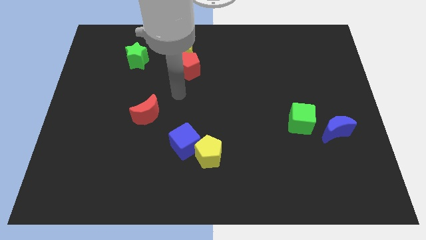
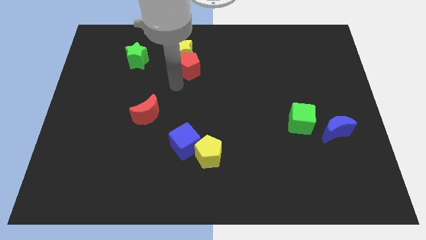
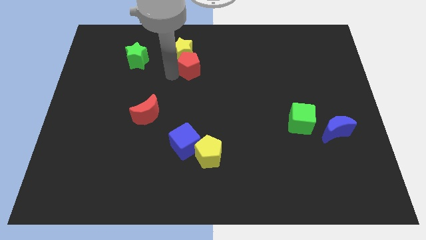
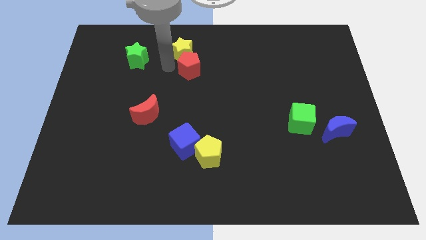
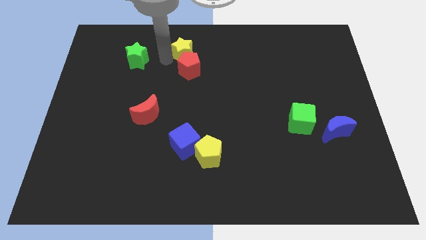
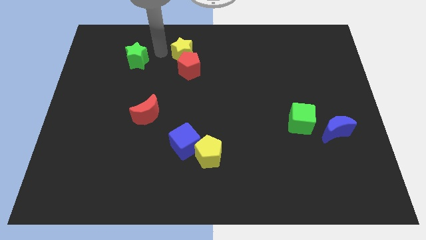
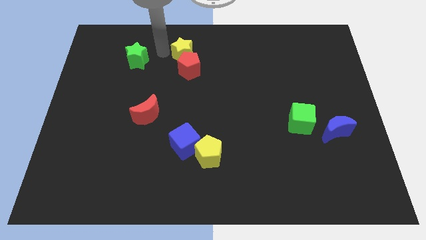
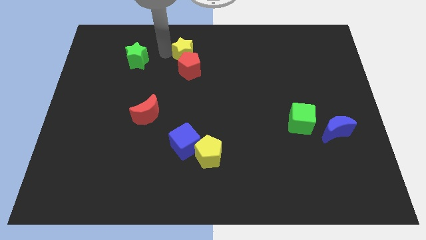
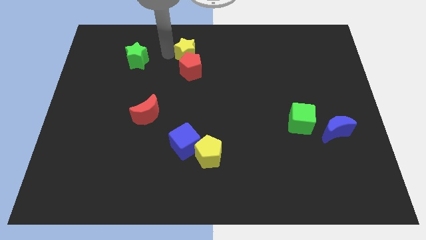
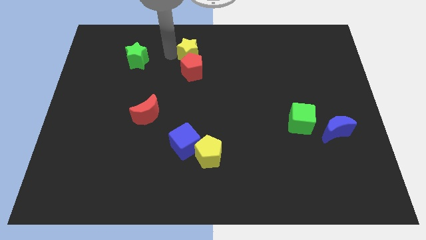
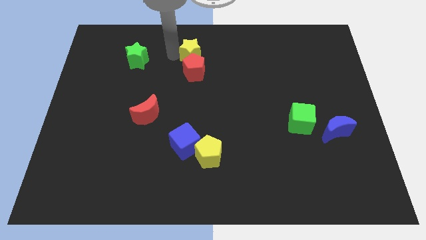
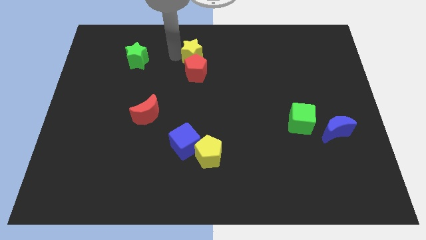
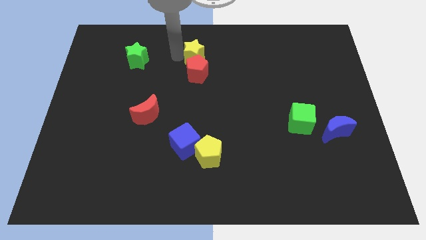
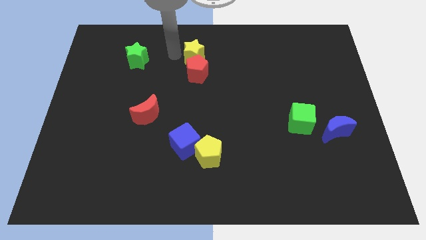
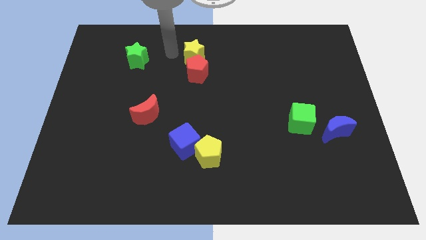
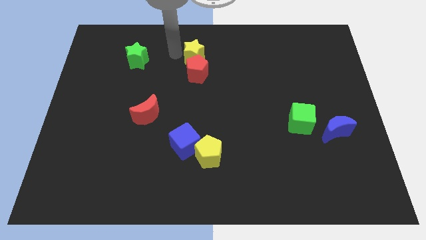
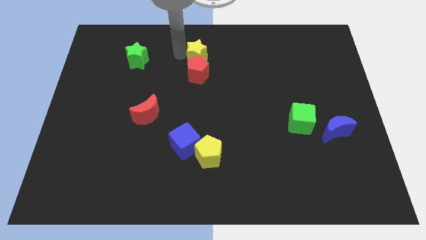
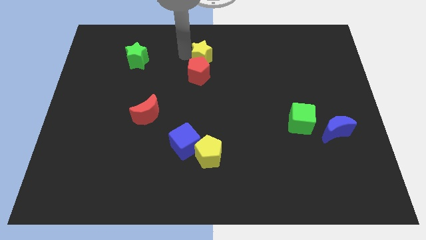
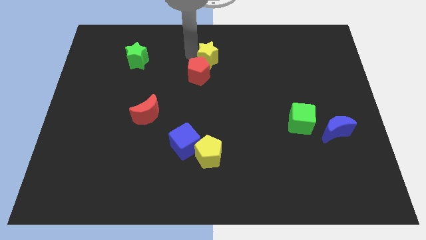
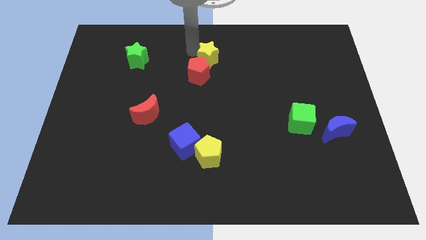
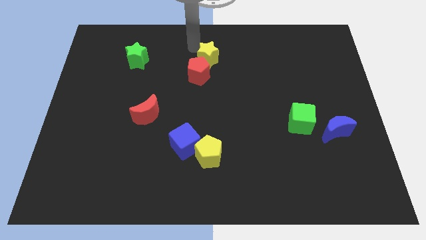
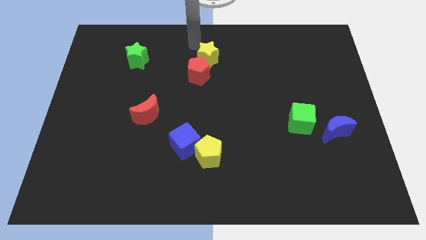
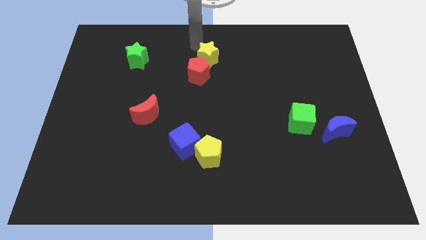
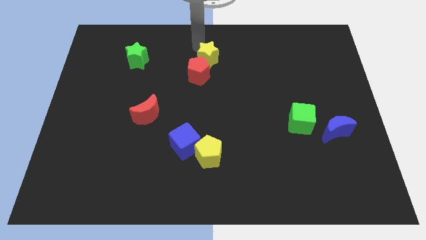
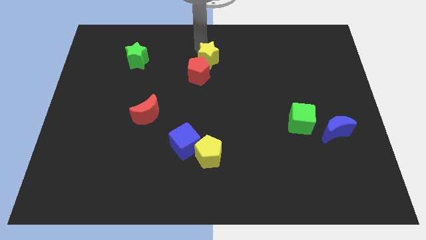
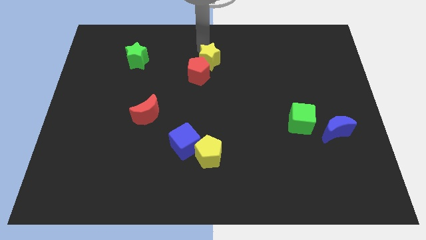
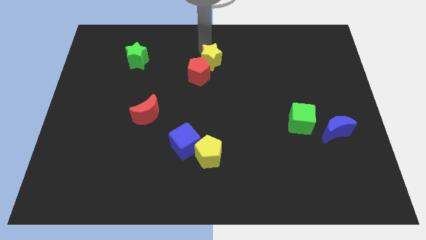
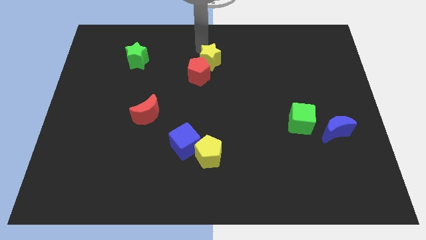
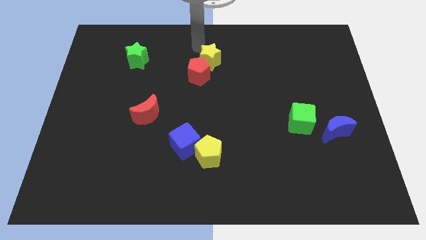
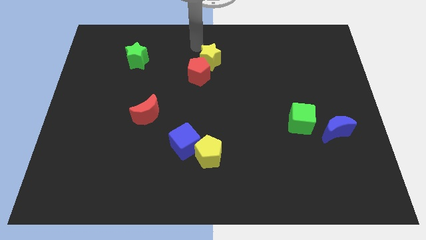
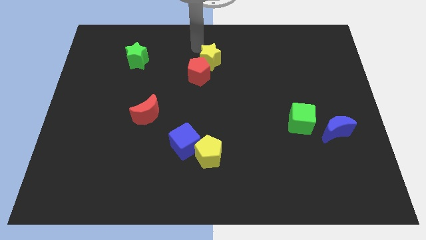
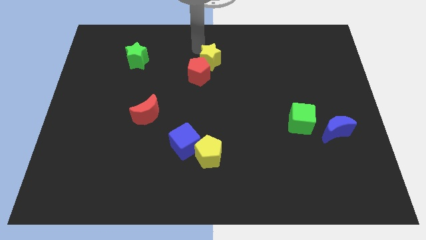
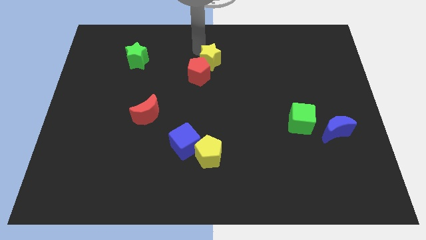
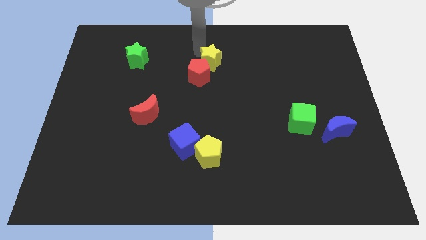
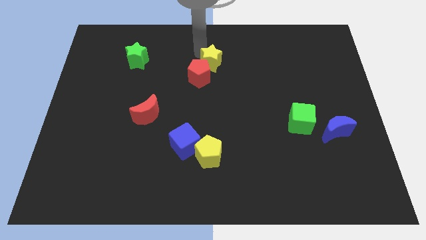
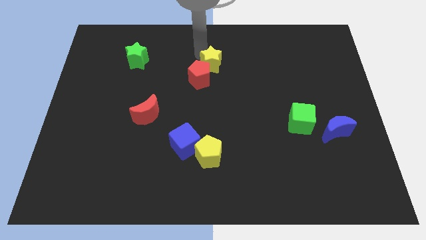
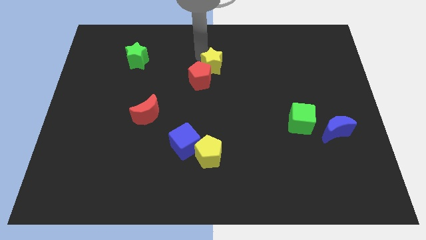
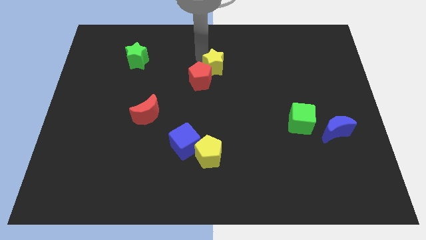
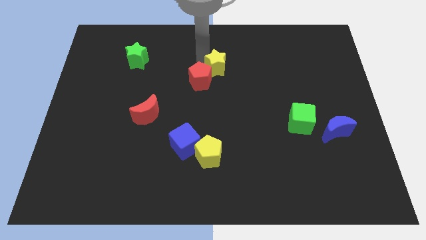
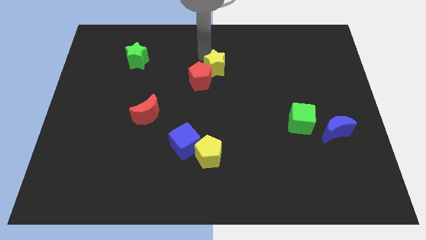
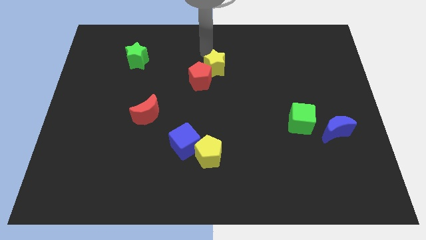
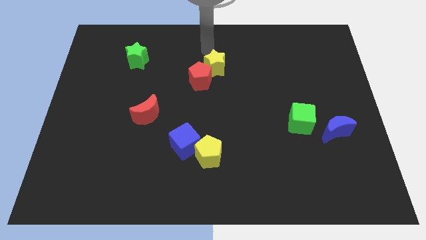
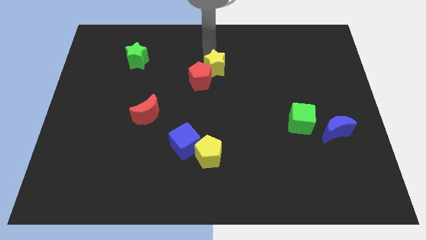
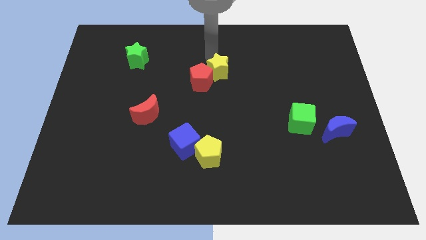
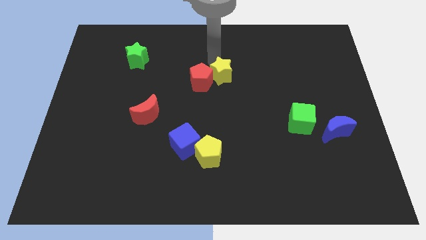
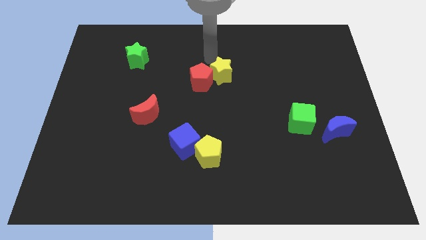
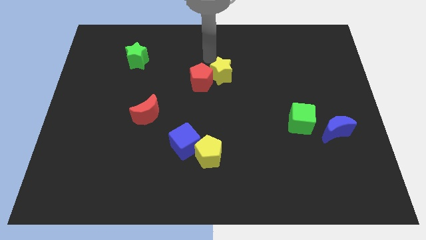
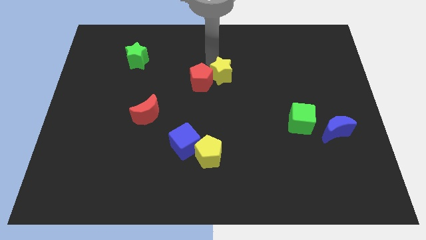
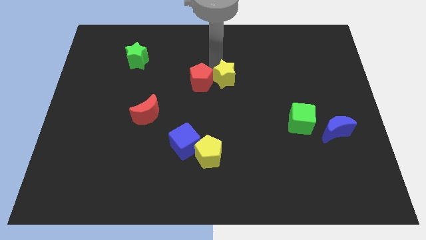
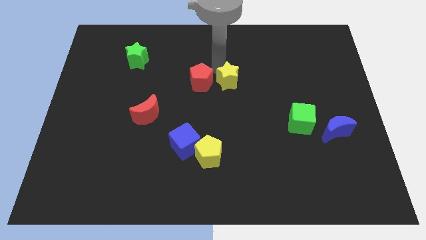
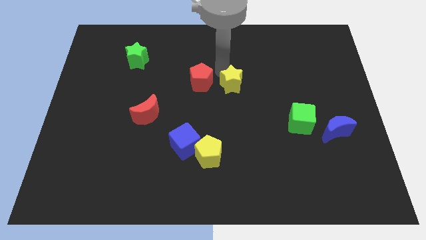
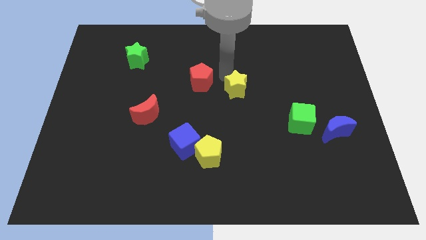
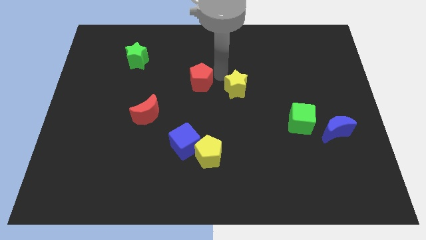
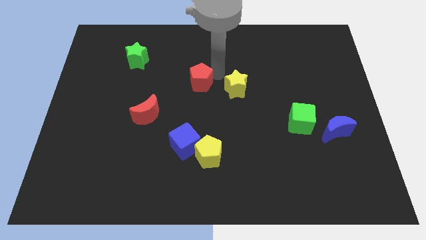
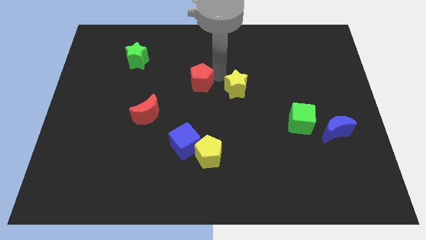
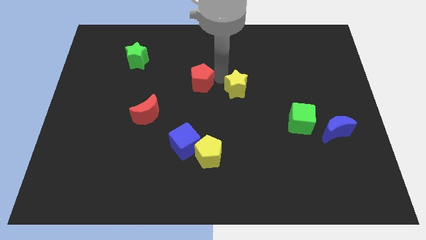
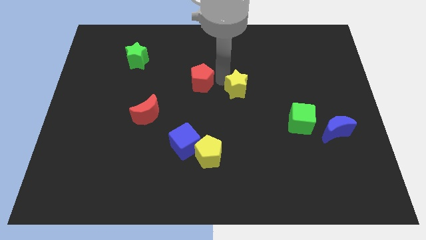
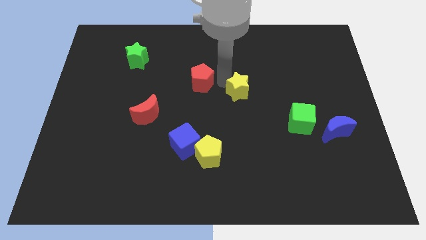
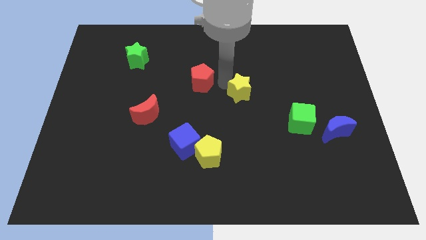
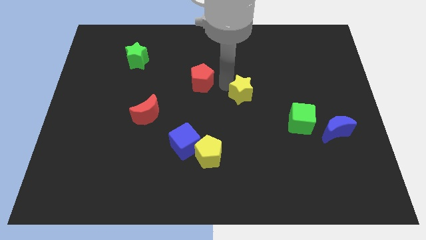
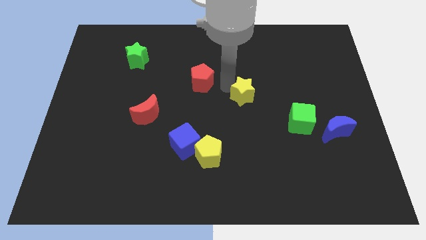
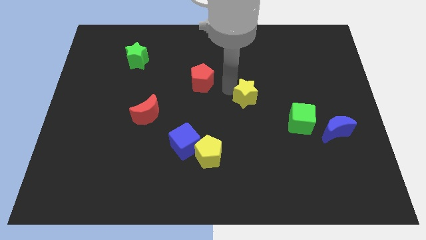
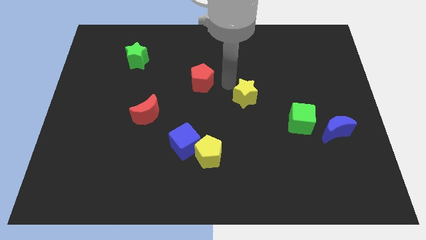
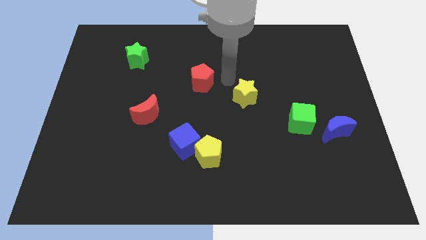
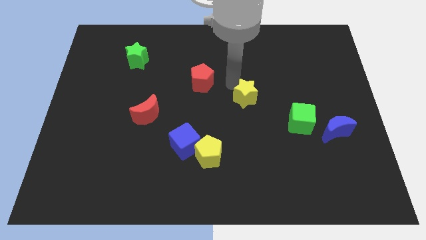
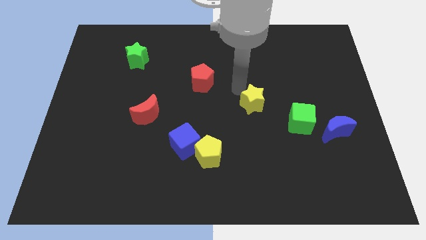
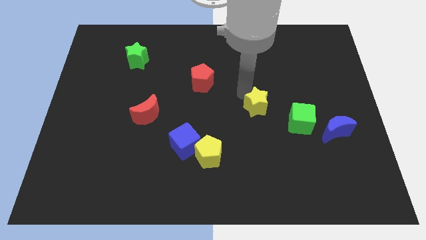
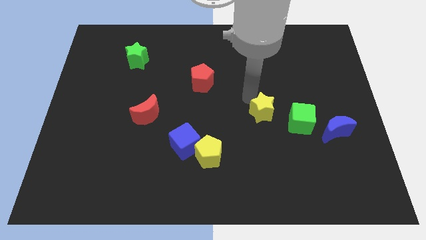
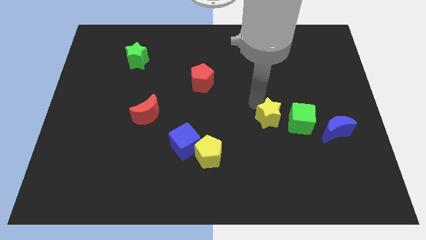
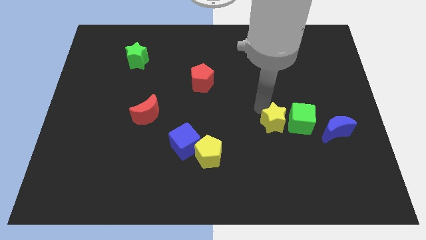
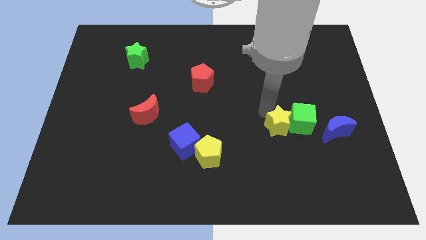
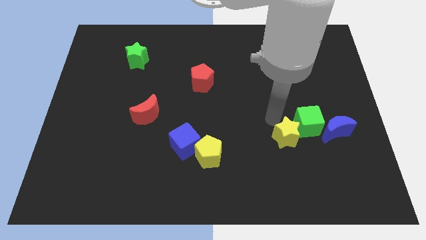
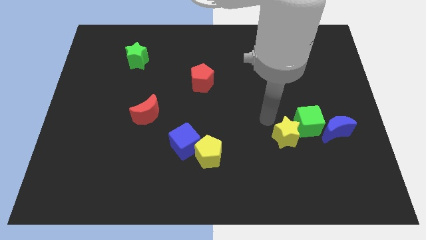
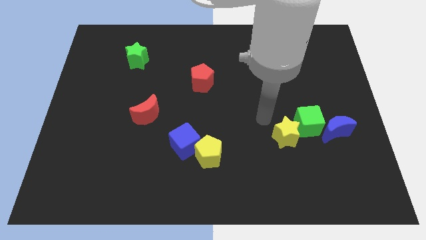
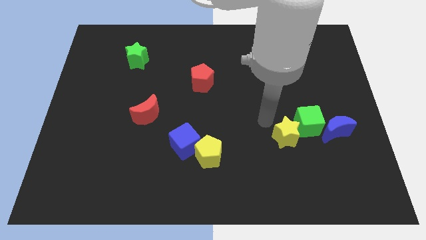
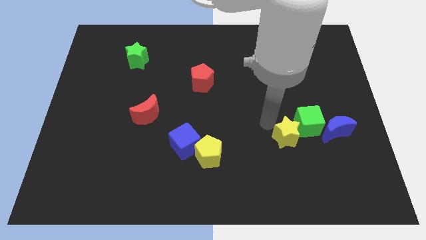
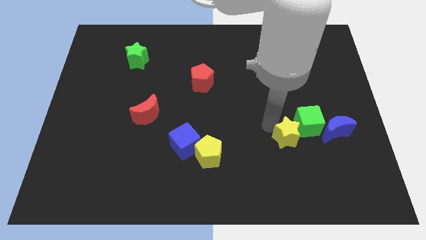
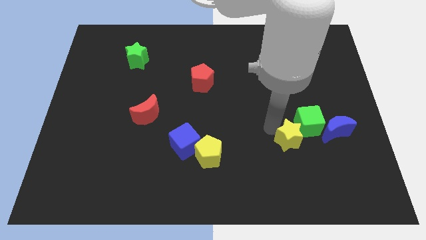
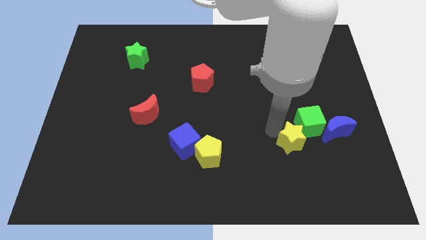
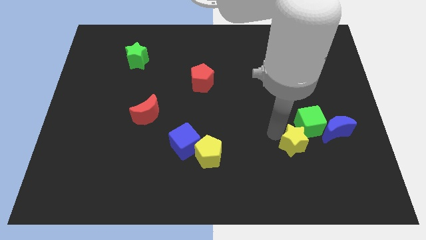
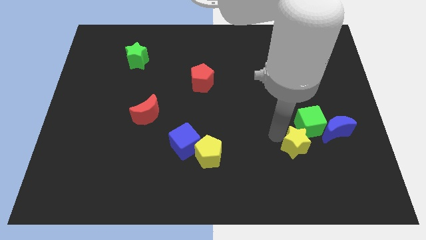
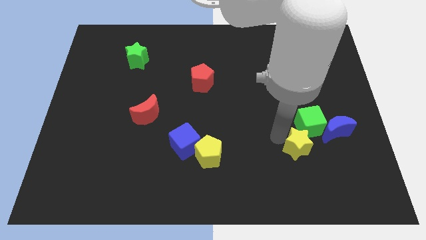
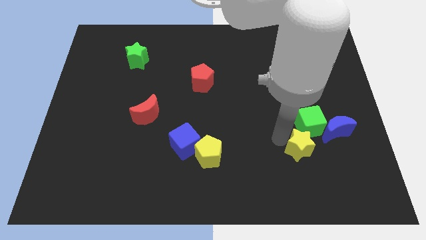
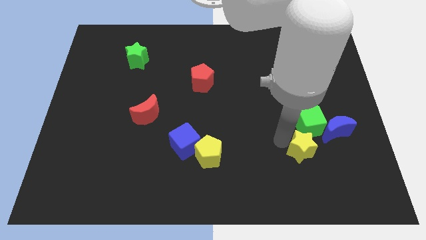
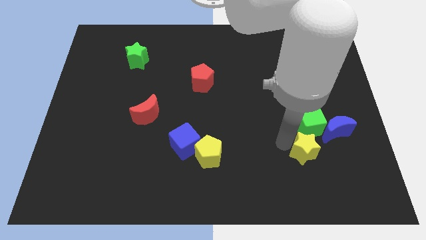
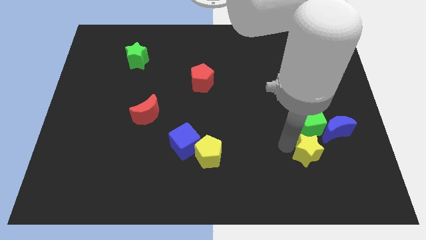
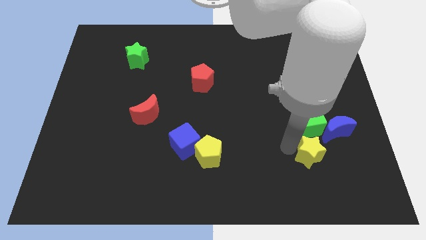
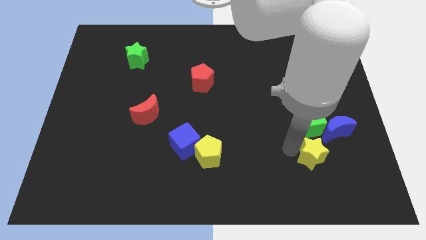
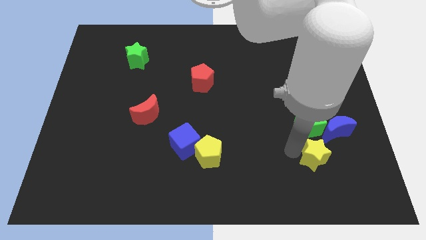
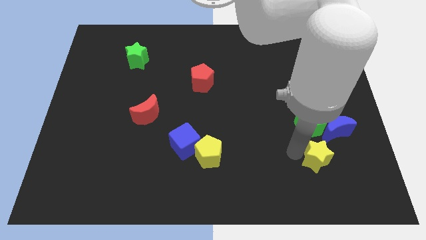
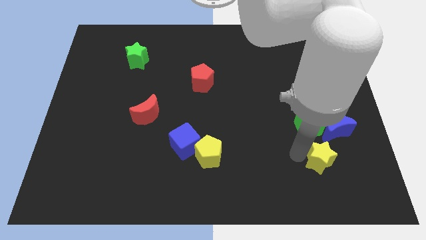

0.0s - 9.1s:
put the yellow star to the bottom side of the blue moon
